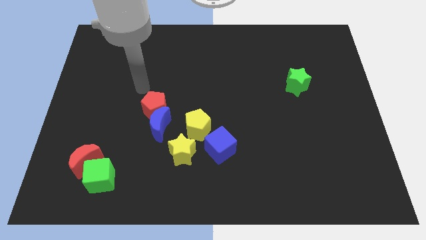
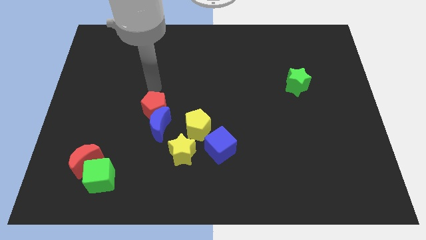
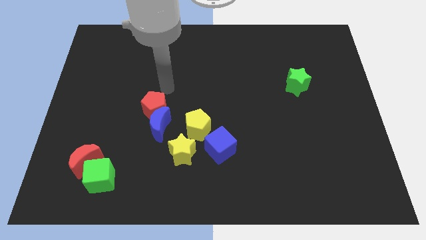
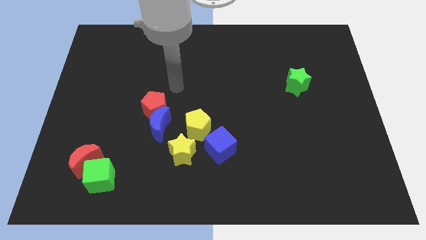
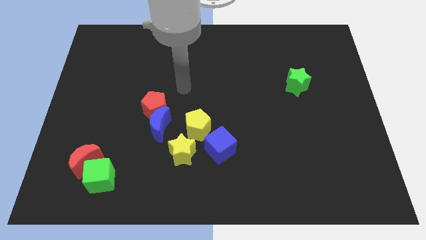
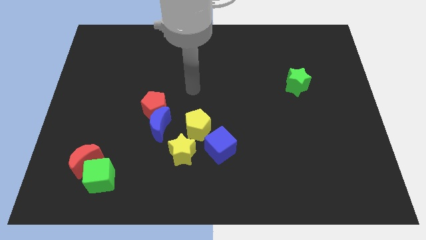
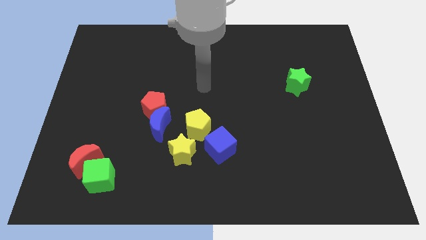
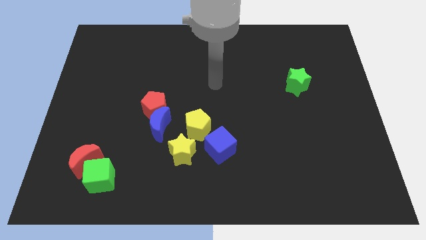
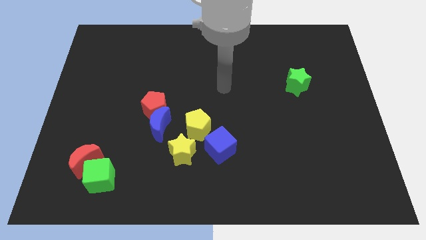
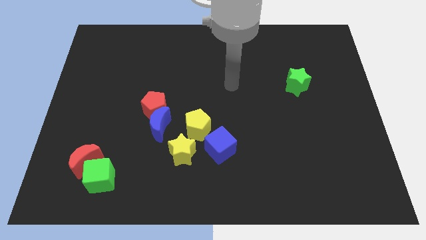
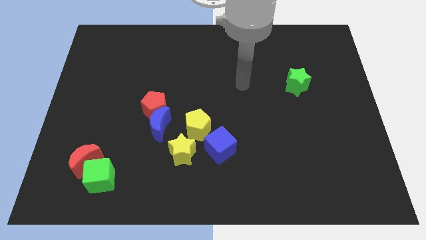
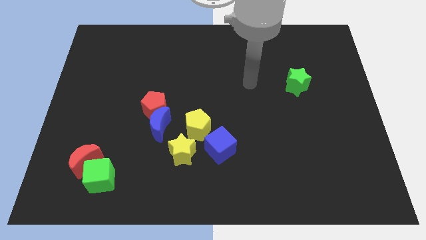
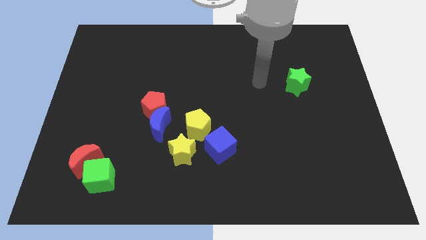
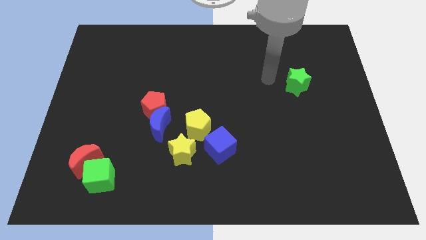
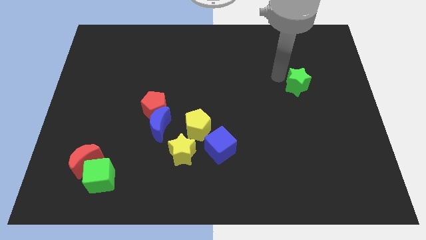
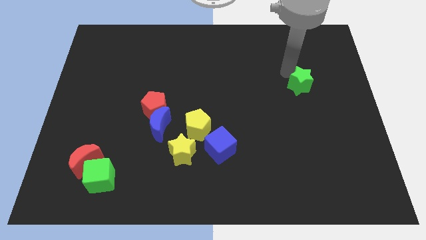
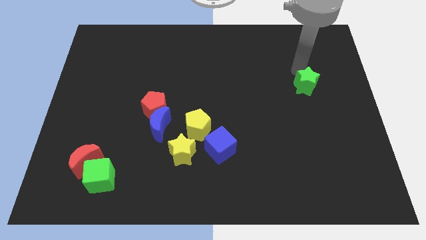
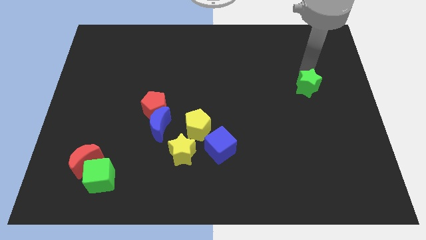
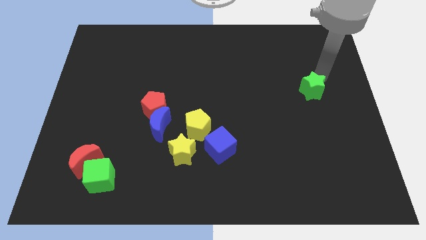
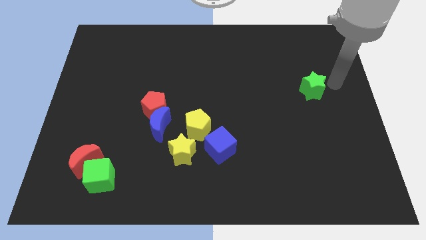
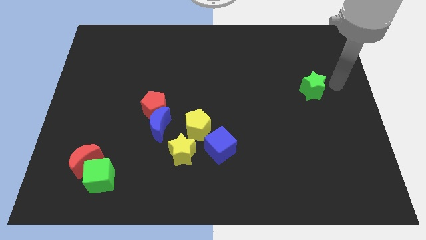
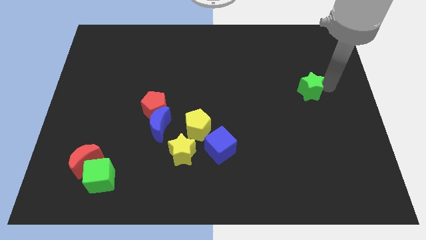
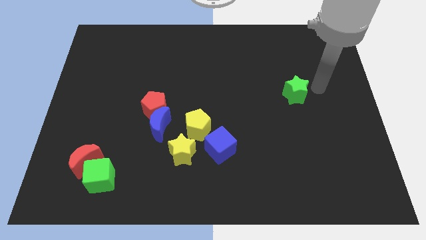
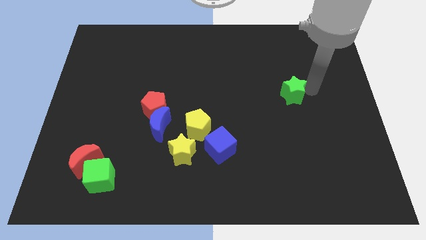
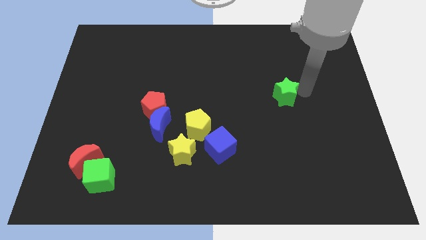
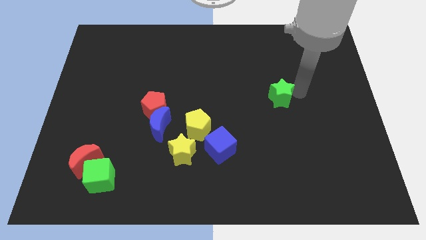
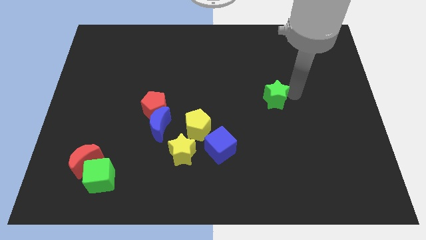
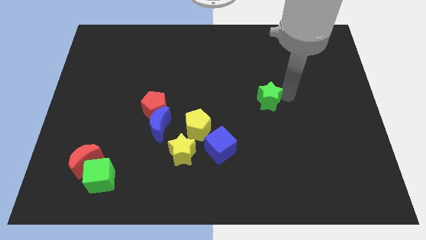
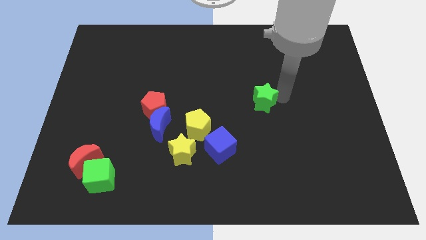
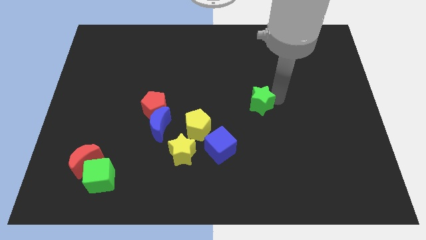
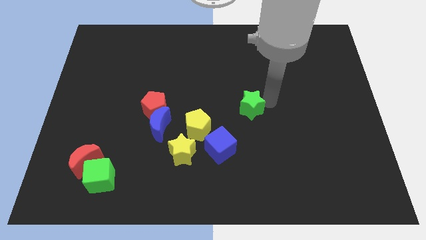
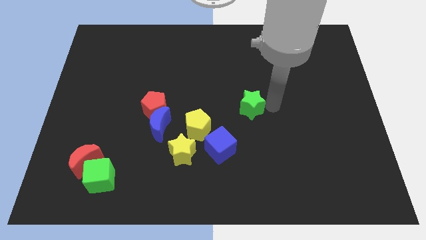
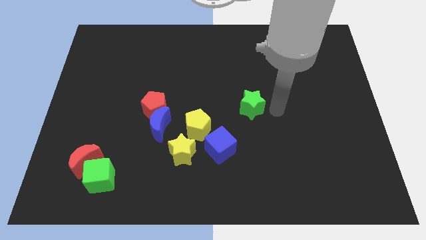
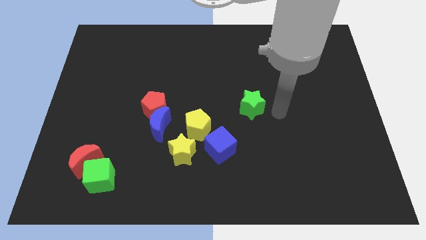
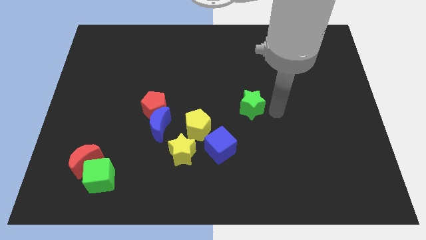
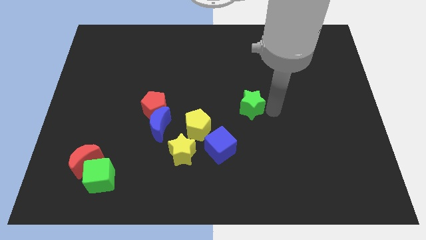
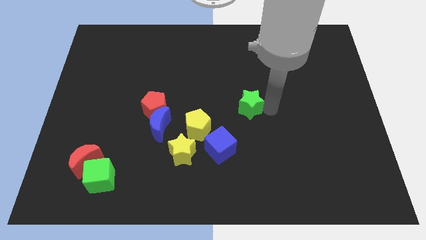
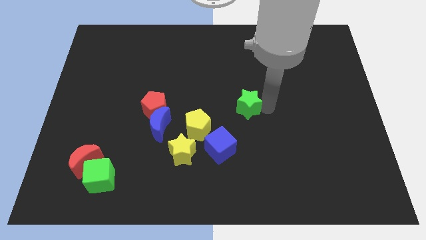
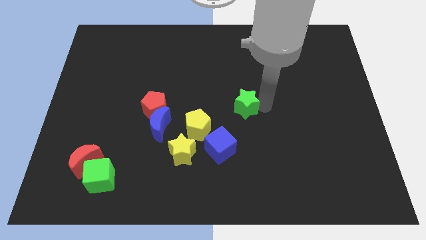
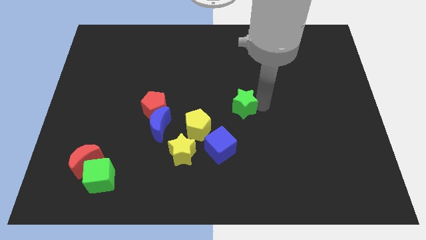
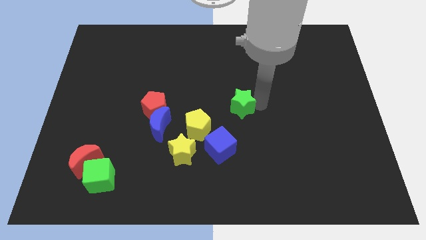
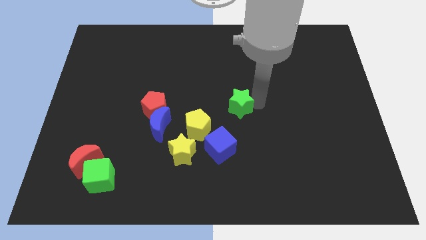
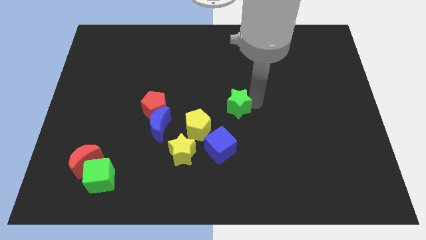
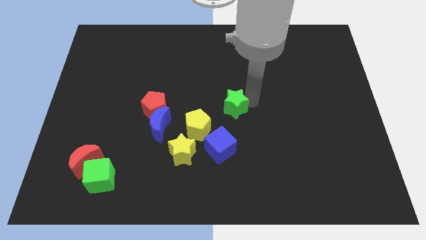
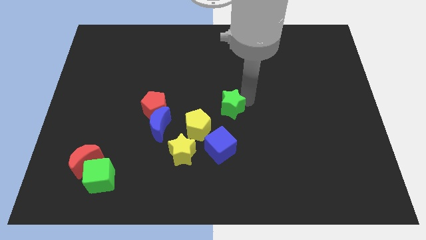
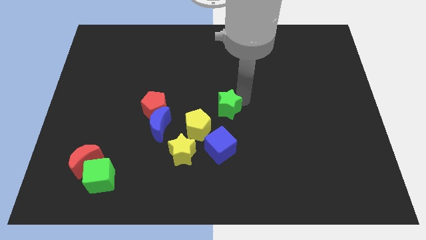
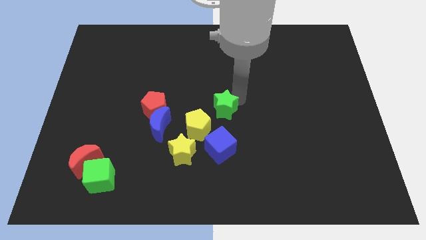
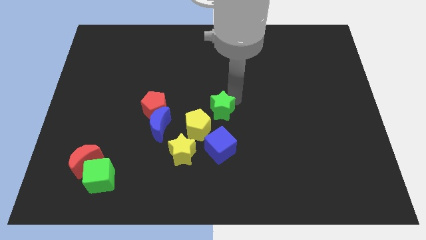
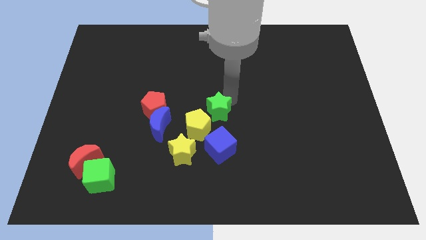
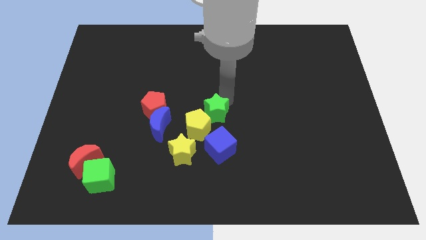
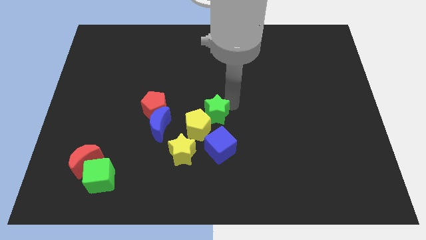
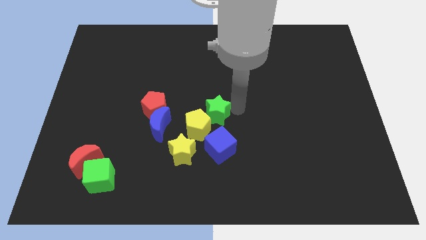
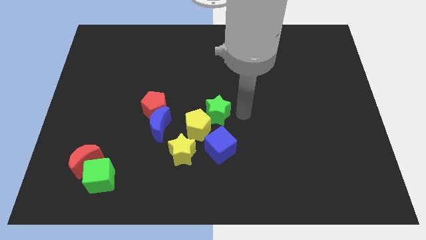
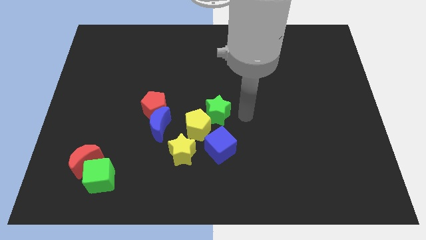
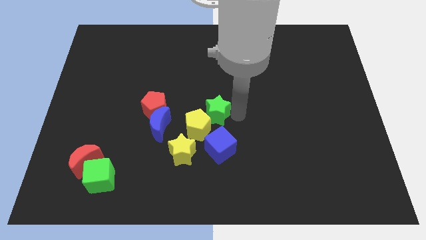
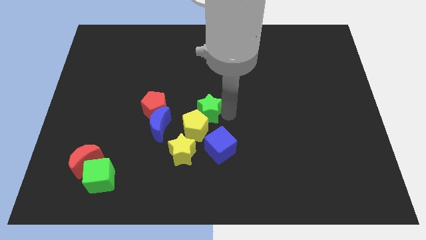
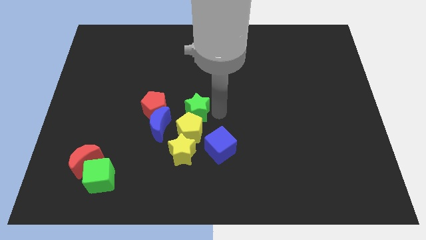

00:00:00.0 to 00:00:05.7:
push the green star to the top left of the yellow pentagon
